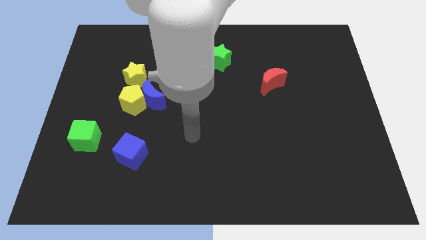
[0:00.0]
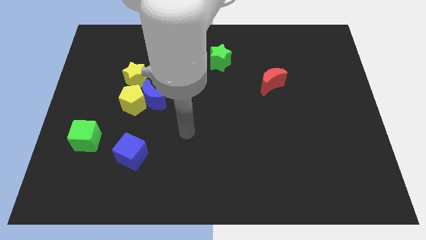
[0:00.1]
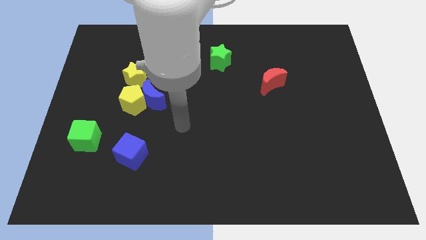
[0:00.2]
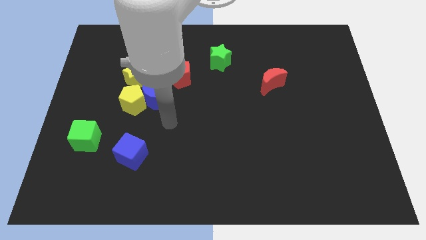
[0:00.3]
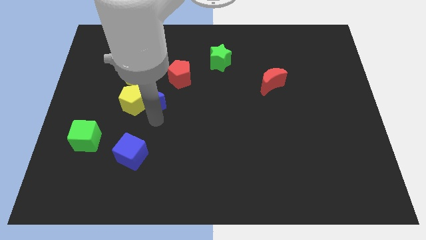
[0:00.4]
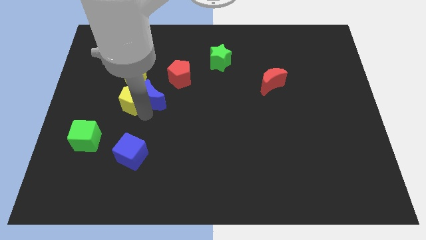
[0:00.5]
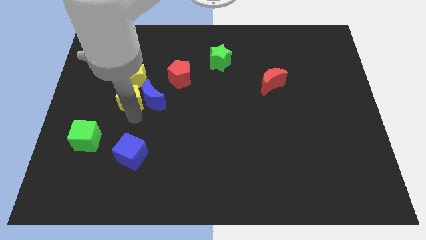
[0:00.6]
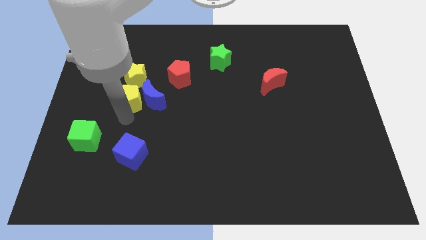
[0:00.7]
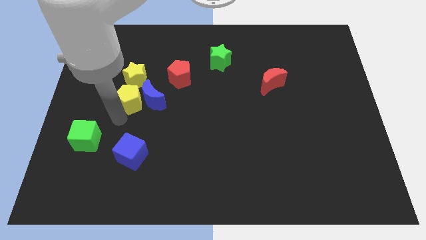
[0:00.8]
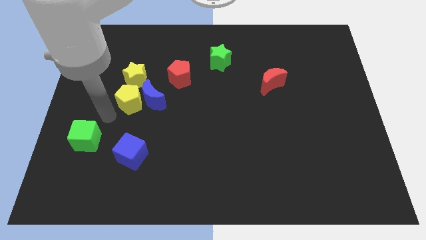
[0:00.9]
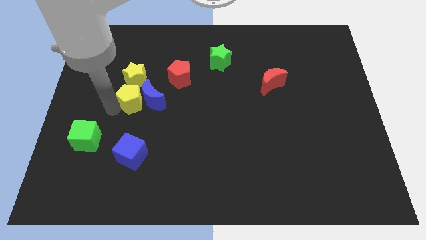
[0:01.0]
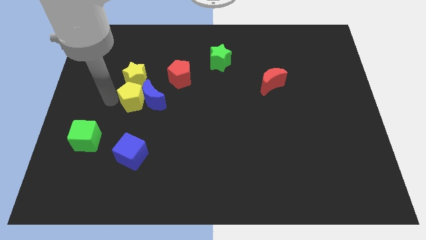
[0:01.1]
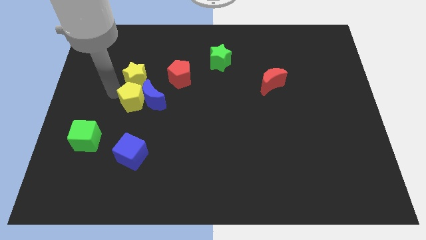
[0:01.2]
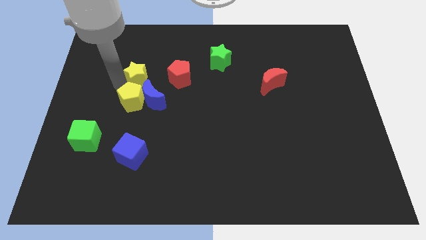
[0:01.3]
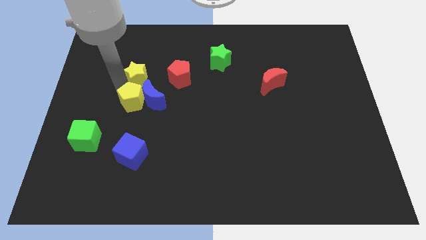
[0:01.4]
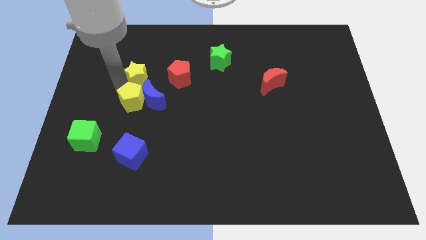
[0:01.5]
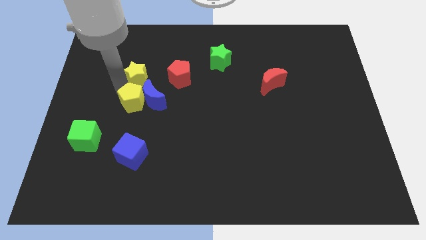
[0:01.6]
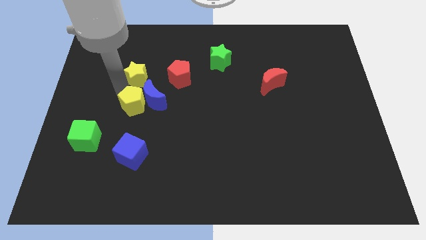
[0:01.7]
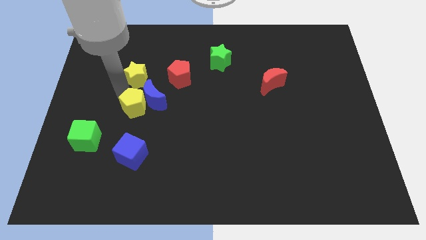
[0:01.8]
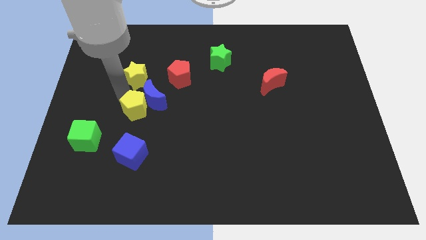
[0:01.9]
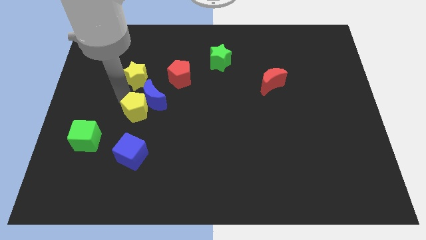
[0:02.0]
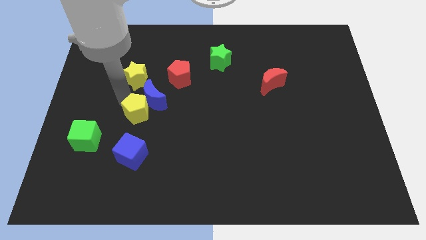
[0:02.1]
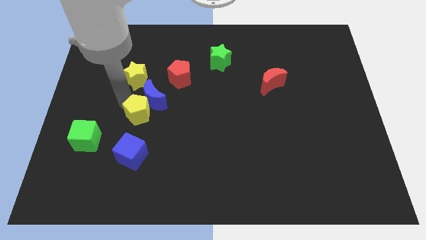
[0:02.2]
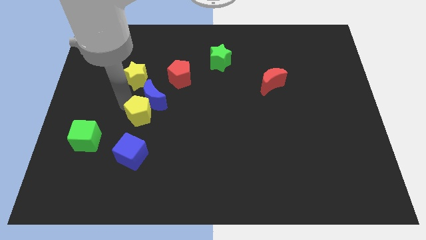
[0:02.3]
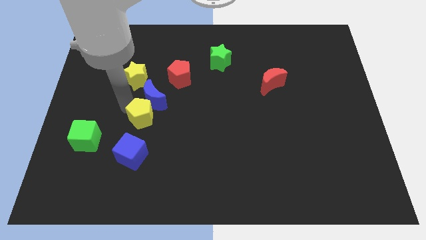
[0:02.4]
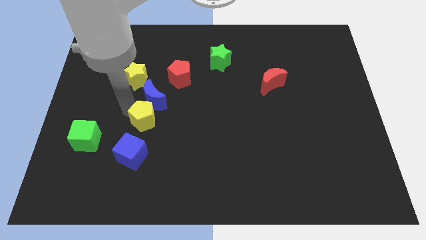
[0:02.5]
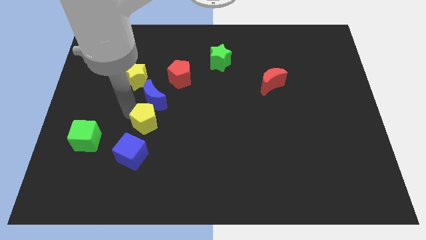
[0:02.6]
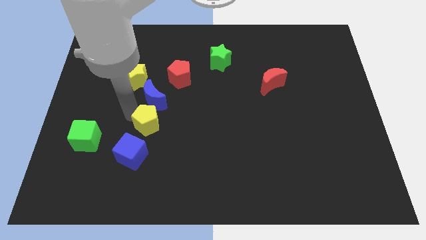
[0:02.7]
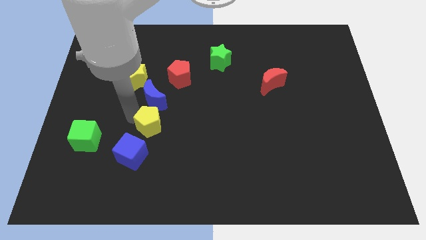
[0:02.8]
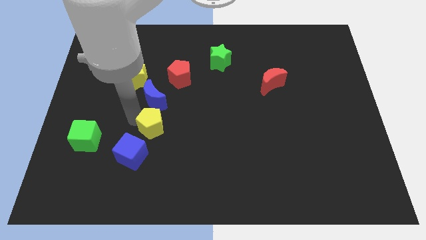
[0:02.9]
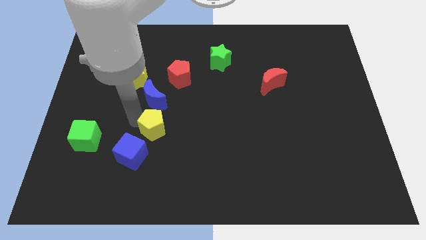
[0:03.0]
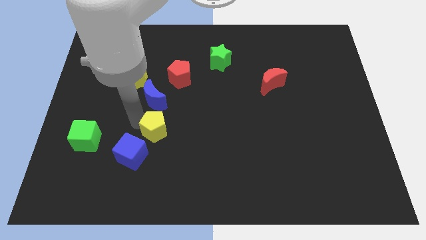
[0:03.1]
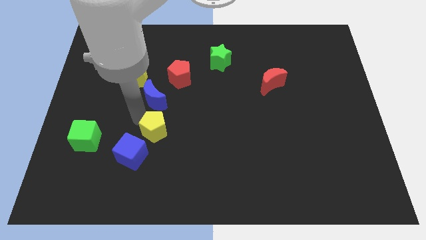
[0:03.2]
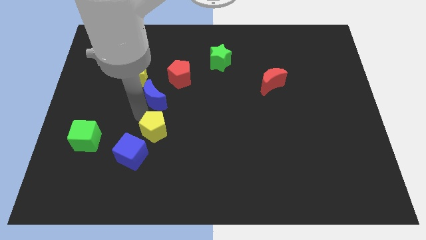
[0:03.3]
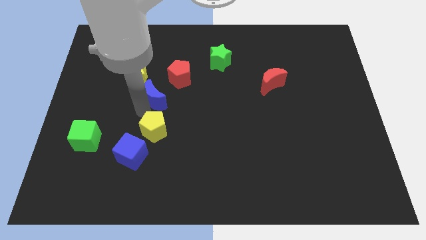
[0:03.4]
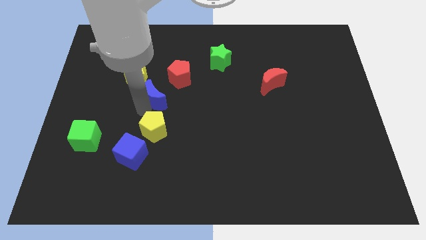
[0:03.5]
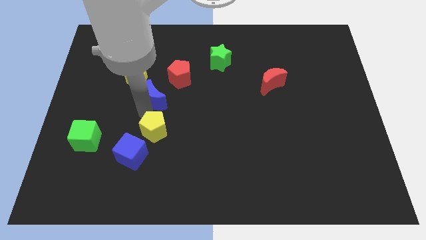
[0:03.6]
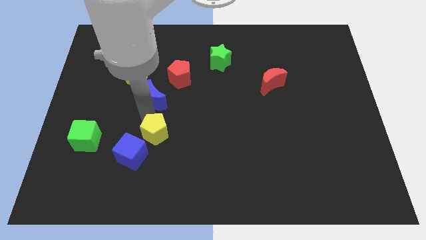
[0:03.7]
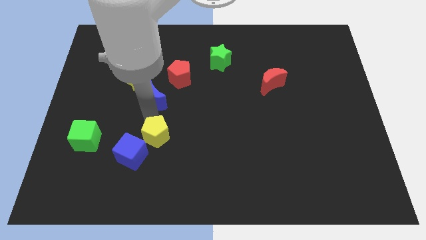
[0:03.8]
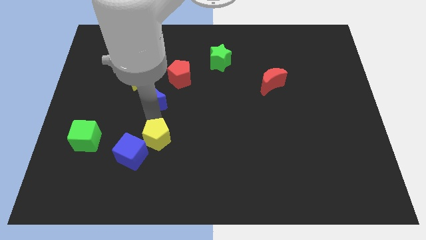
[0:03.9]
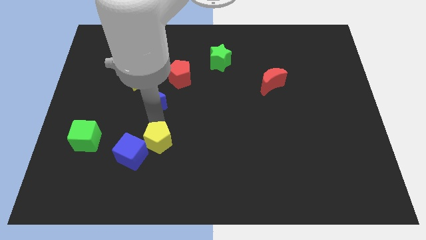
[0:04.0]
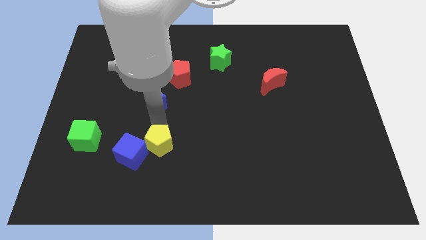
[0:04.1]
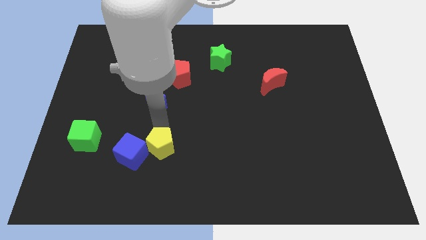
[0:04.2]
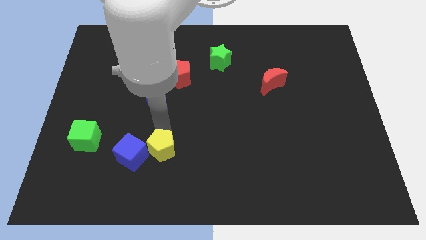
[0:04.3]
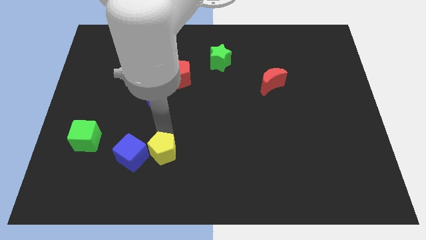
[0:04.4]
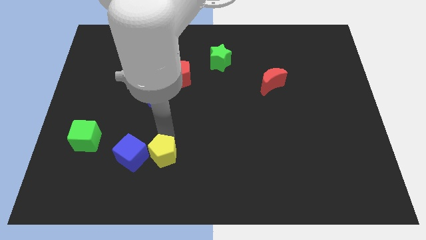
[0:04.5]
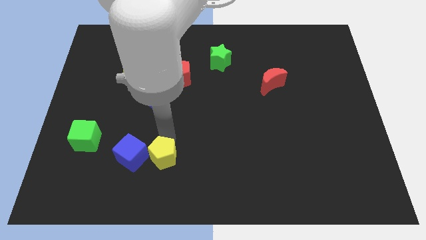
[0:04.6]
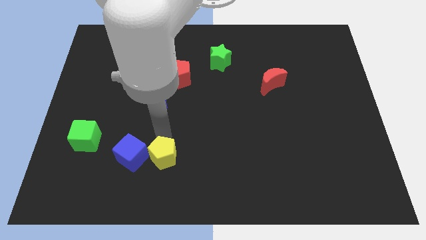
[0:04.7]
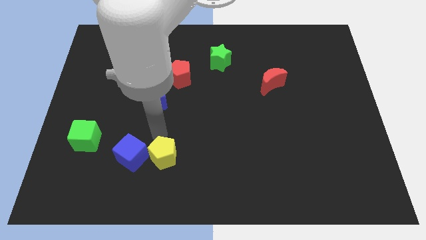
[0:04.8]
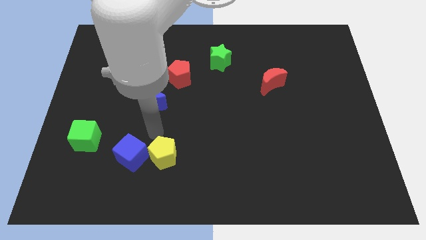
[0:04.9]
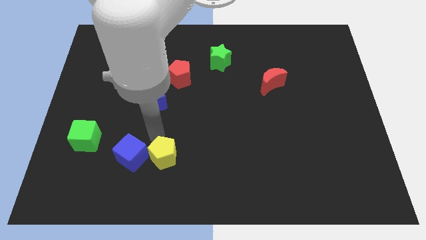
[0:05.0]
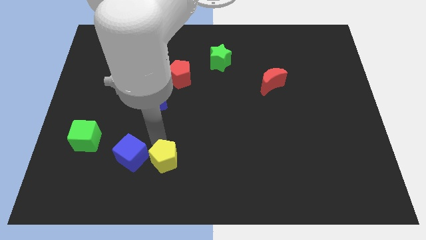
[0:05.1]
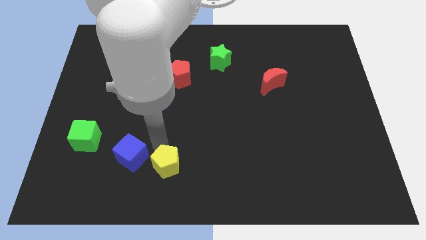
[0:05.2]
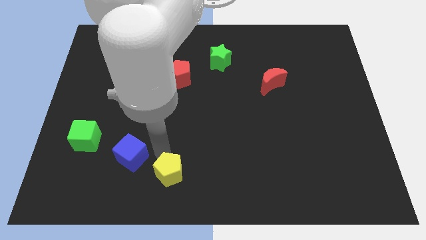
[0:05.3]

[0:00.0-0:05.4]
put the yellow pentagon to the bottom

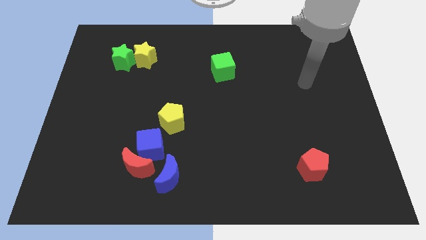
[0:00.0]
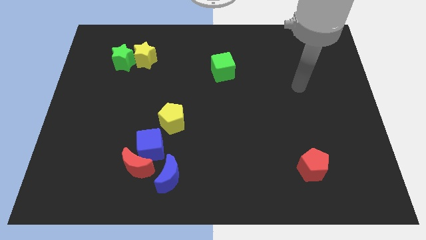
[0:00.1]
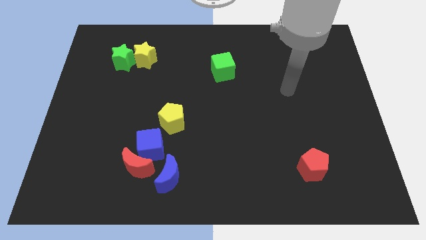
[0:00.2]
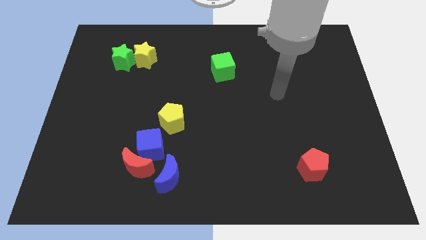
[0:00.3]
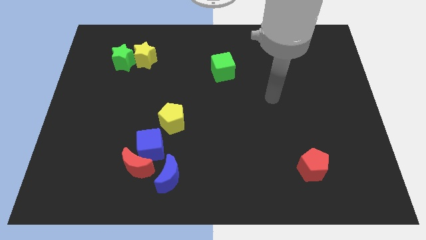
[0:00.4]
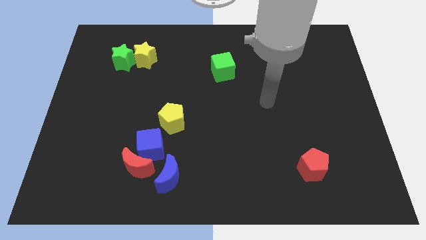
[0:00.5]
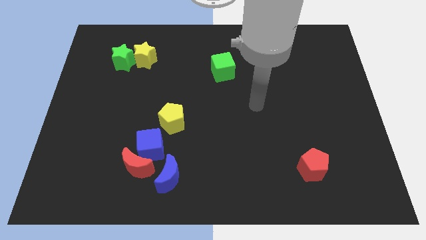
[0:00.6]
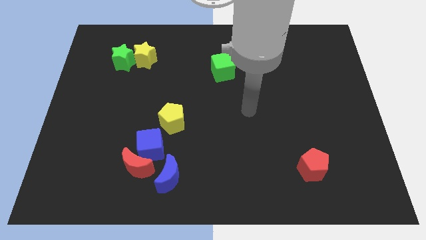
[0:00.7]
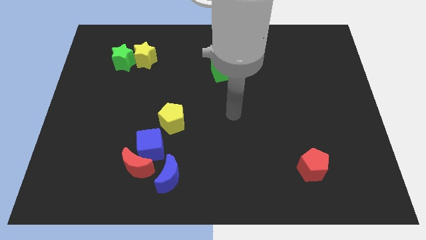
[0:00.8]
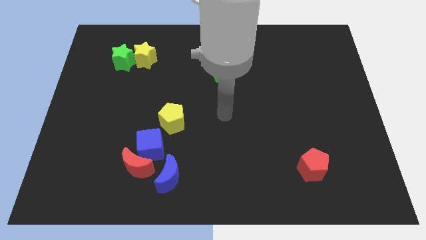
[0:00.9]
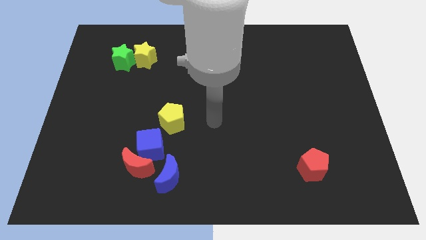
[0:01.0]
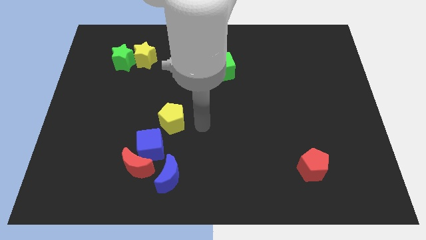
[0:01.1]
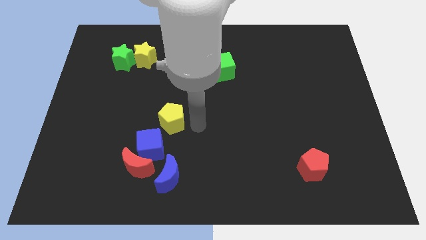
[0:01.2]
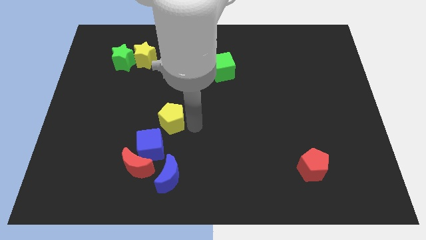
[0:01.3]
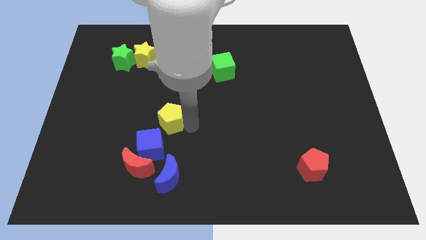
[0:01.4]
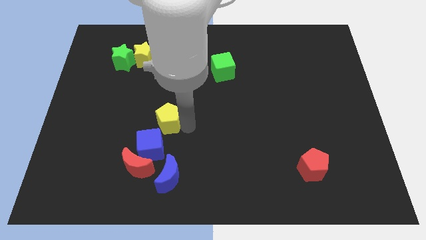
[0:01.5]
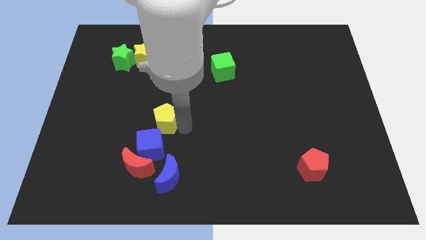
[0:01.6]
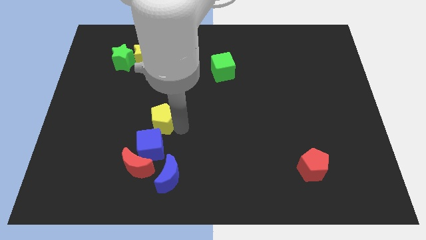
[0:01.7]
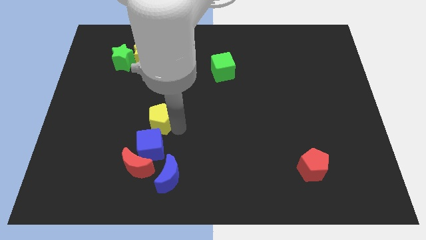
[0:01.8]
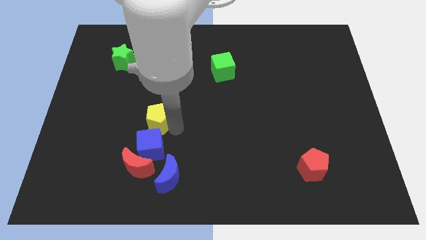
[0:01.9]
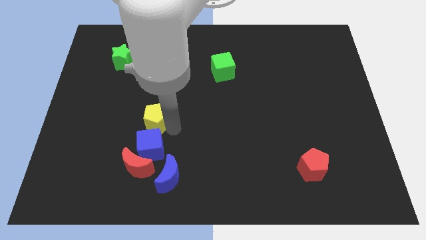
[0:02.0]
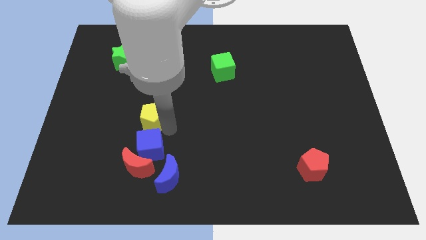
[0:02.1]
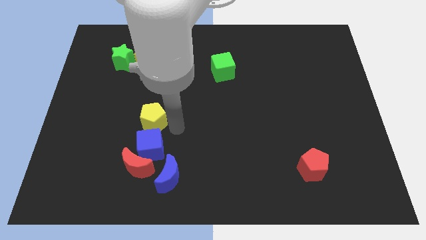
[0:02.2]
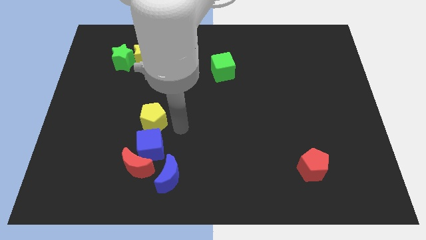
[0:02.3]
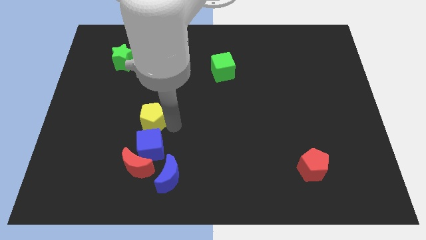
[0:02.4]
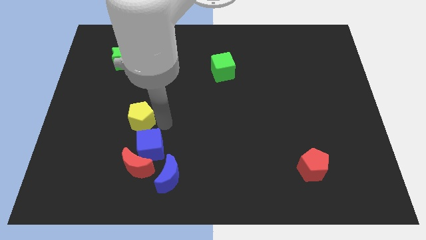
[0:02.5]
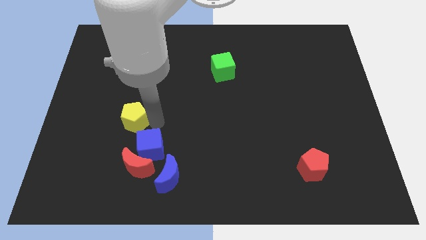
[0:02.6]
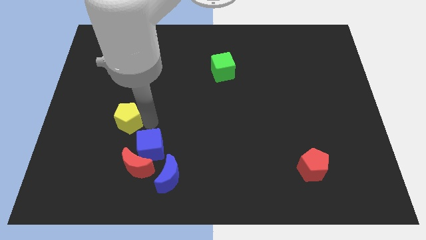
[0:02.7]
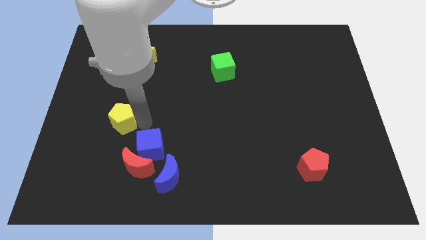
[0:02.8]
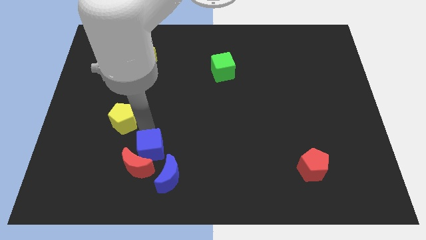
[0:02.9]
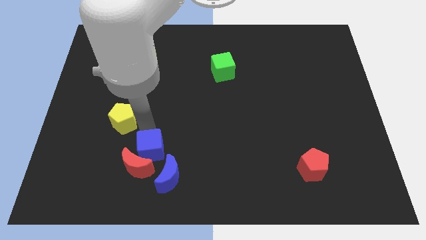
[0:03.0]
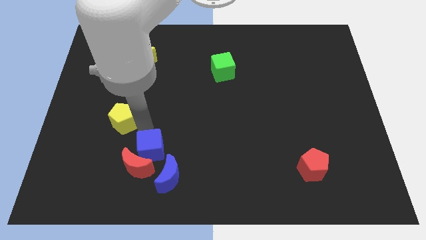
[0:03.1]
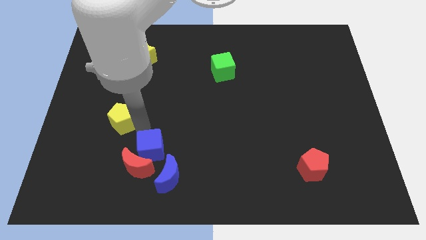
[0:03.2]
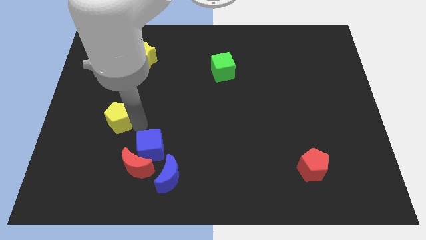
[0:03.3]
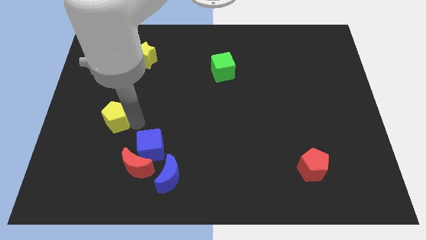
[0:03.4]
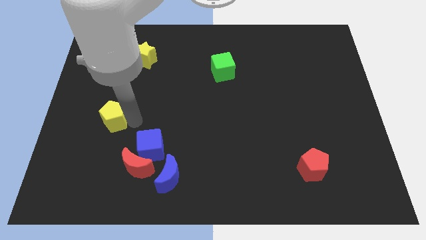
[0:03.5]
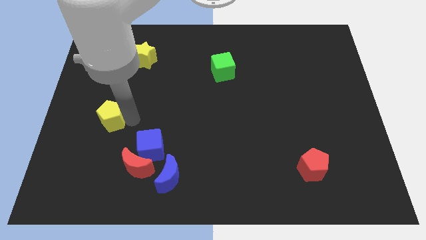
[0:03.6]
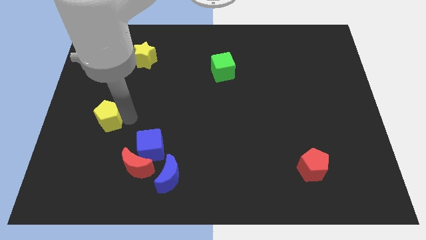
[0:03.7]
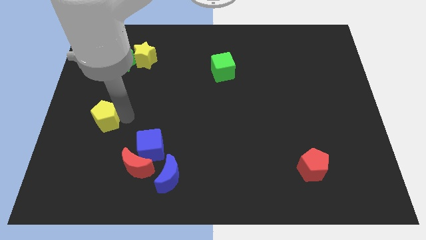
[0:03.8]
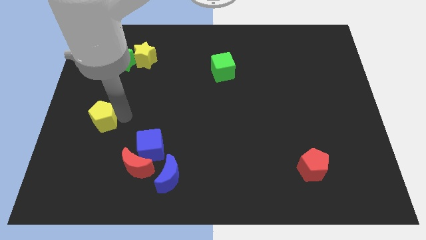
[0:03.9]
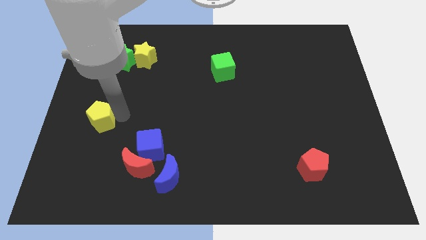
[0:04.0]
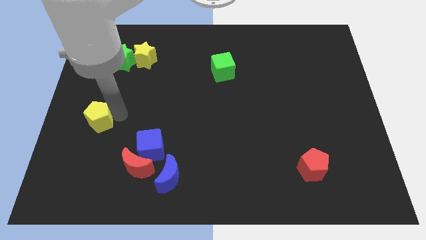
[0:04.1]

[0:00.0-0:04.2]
put the yellow pentagon to the left side of the board
